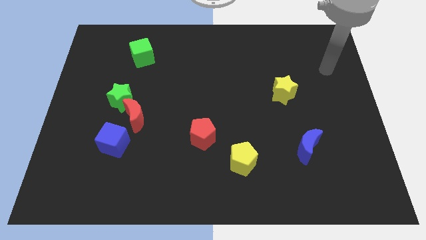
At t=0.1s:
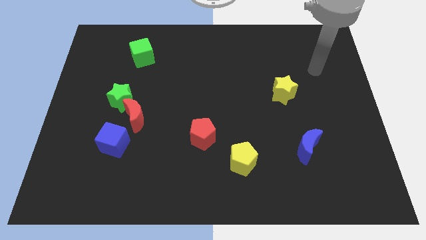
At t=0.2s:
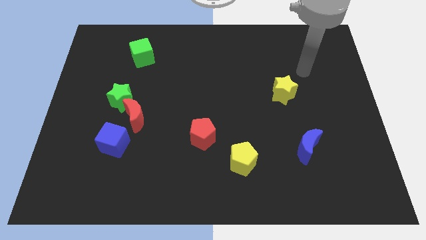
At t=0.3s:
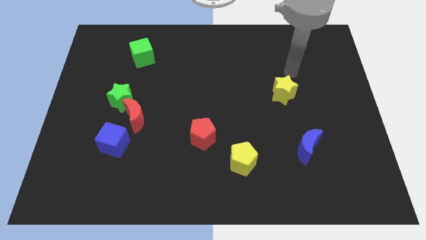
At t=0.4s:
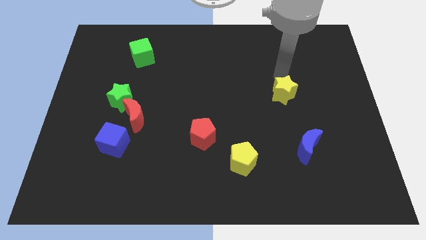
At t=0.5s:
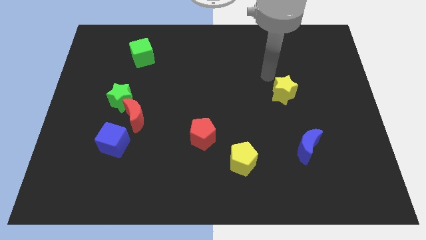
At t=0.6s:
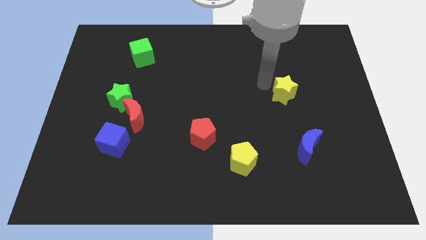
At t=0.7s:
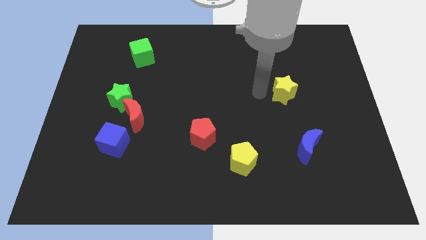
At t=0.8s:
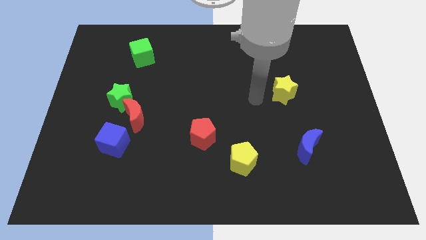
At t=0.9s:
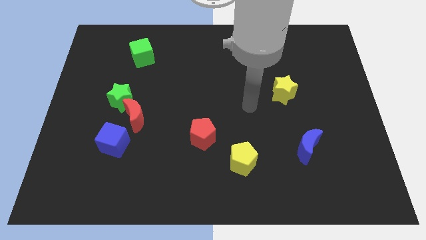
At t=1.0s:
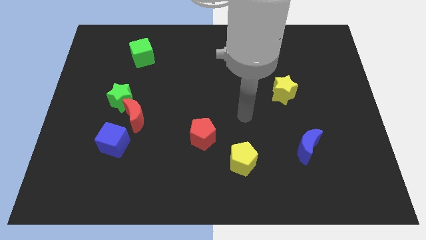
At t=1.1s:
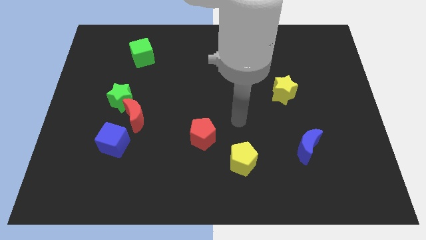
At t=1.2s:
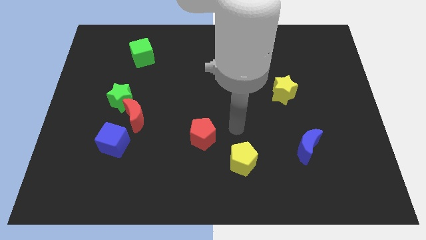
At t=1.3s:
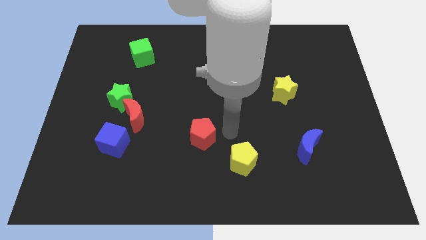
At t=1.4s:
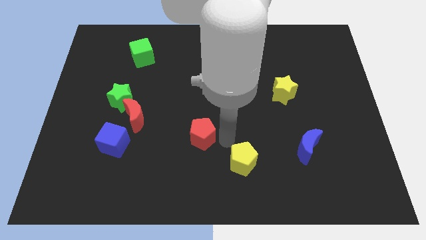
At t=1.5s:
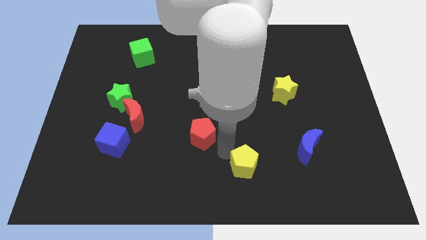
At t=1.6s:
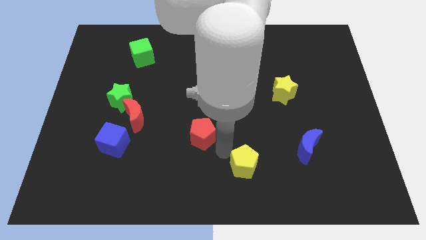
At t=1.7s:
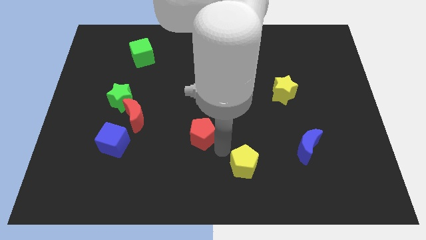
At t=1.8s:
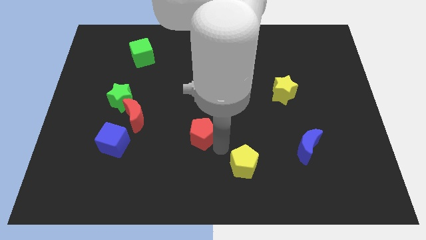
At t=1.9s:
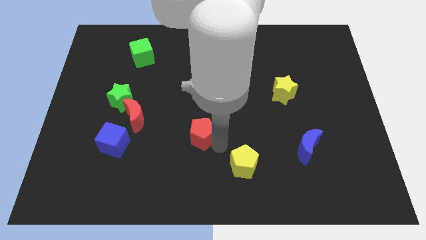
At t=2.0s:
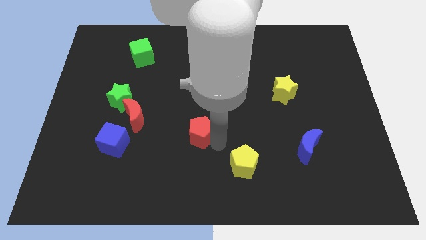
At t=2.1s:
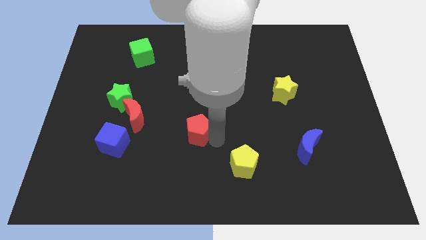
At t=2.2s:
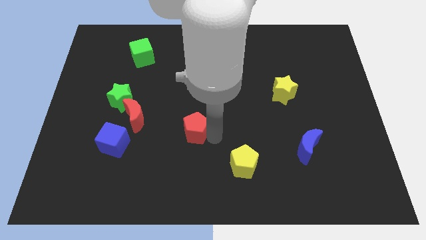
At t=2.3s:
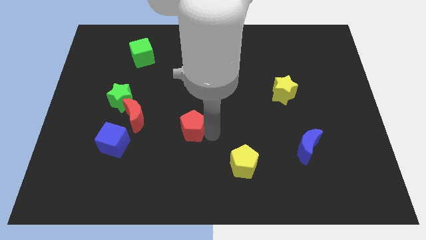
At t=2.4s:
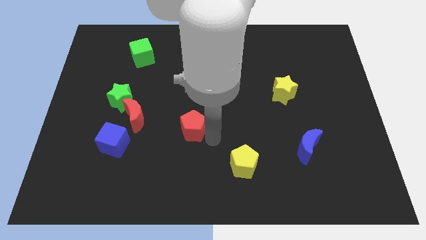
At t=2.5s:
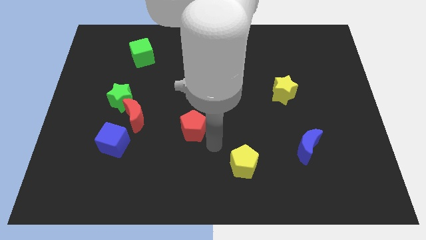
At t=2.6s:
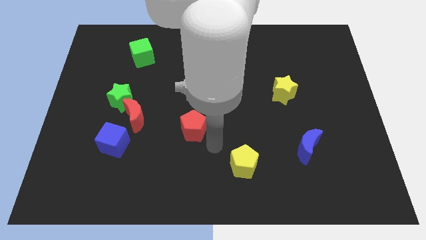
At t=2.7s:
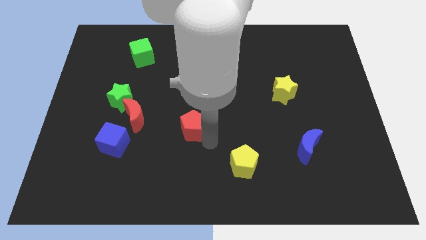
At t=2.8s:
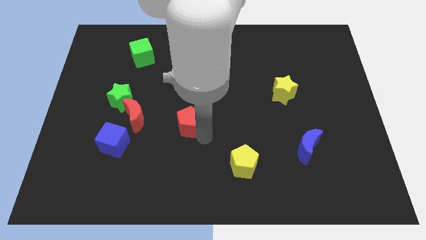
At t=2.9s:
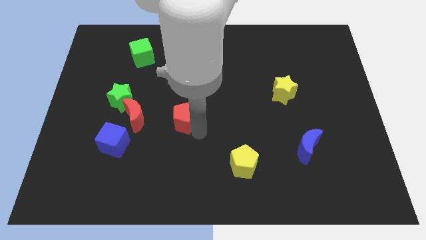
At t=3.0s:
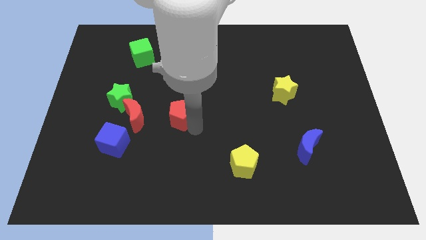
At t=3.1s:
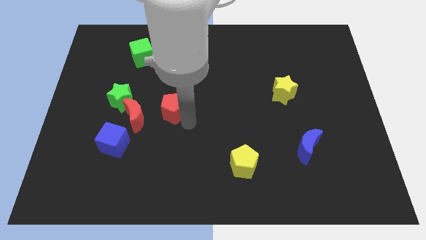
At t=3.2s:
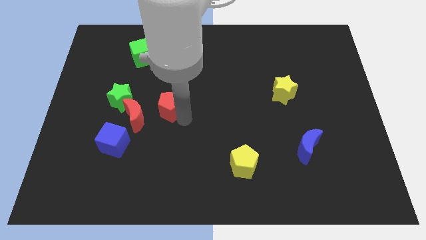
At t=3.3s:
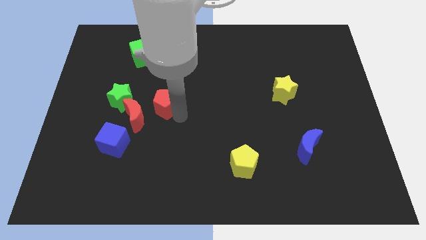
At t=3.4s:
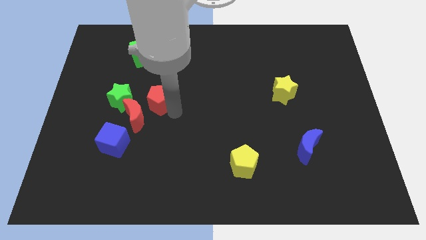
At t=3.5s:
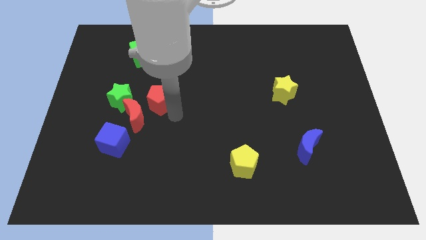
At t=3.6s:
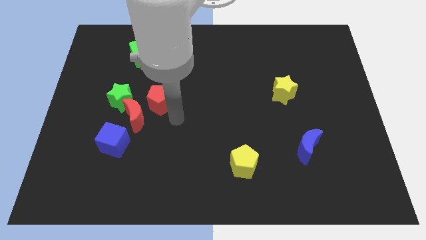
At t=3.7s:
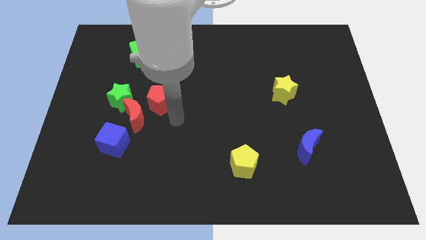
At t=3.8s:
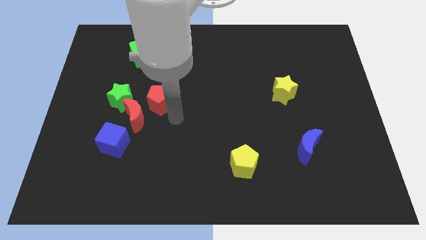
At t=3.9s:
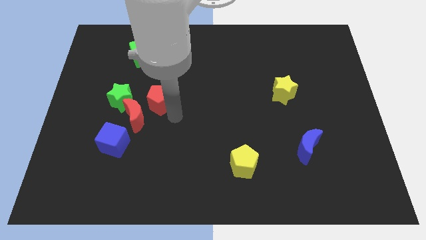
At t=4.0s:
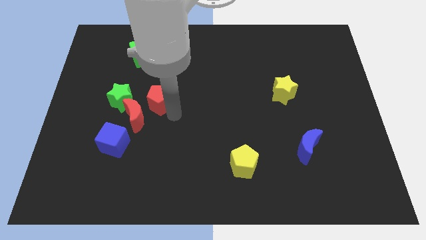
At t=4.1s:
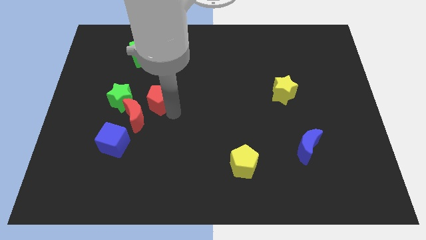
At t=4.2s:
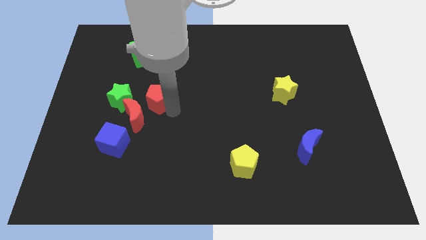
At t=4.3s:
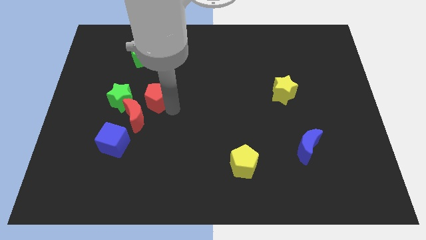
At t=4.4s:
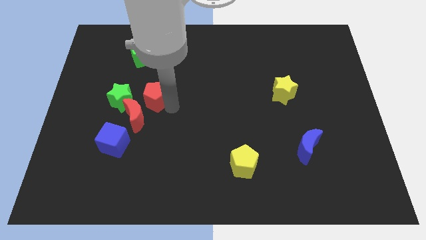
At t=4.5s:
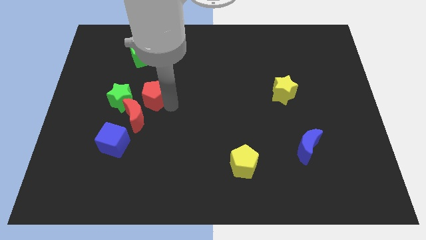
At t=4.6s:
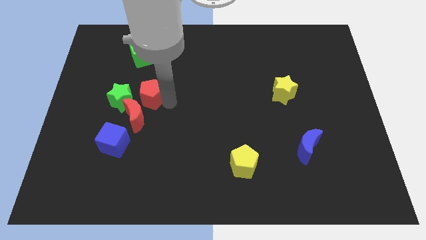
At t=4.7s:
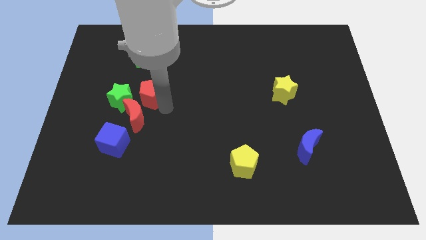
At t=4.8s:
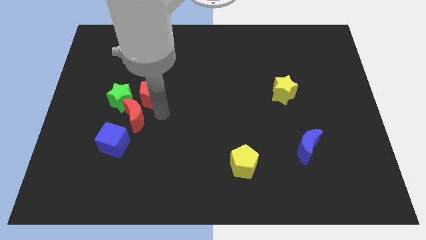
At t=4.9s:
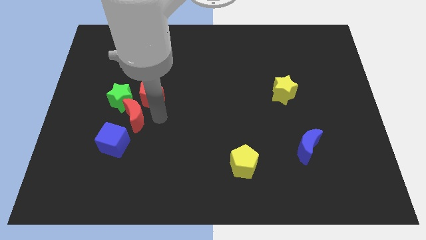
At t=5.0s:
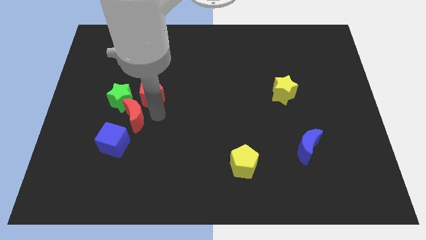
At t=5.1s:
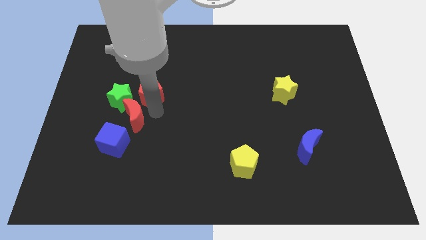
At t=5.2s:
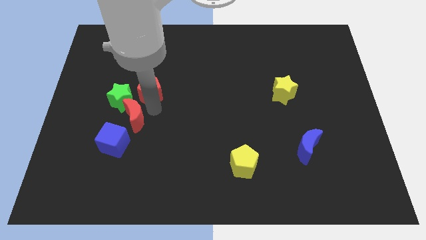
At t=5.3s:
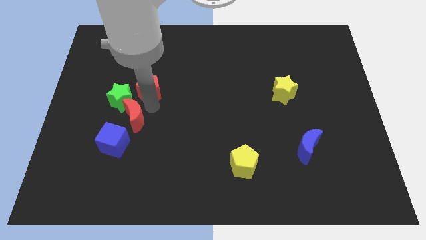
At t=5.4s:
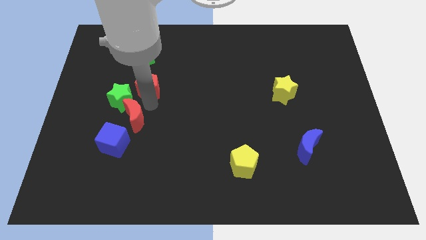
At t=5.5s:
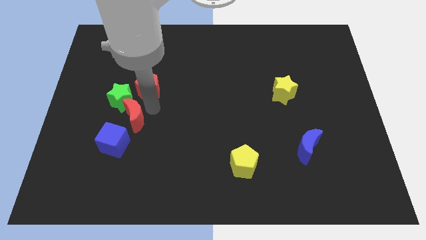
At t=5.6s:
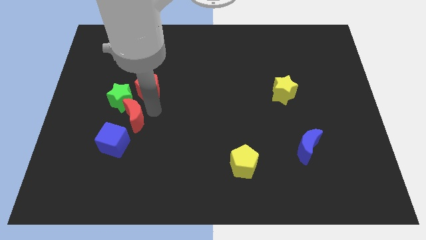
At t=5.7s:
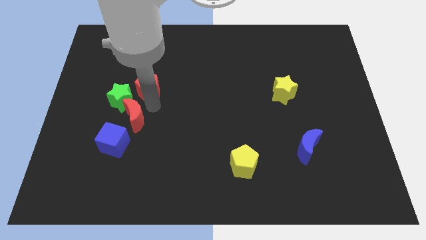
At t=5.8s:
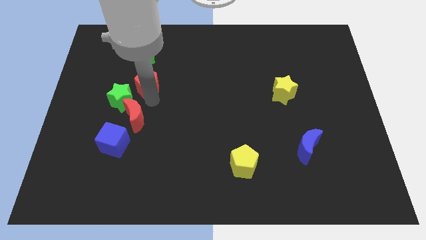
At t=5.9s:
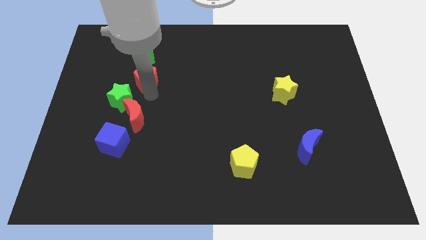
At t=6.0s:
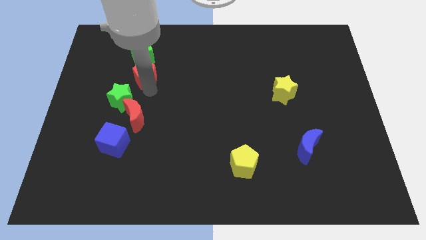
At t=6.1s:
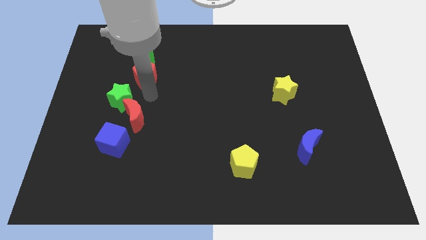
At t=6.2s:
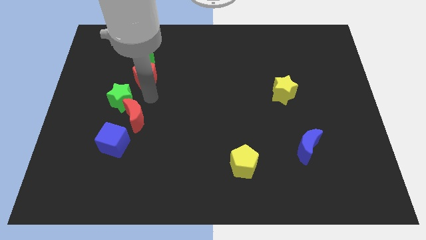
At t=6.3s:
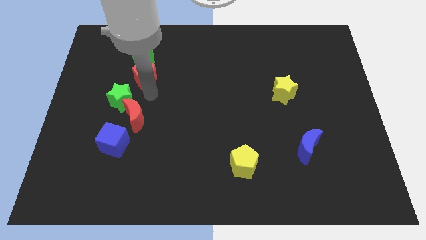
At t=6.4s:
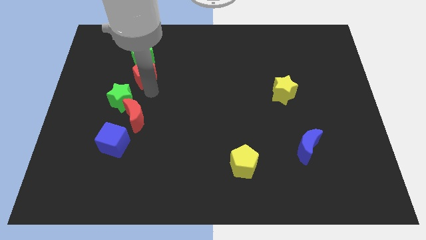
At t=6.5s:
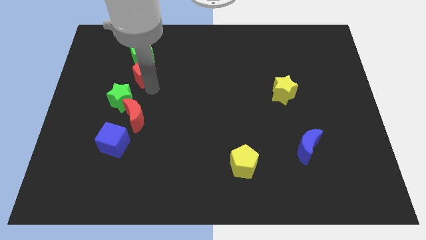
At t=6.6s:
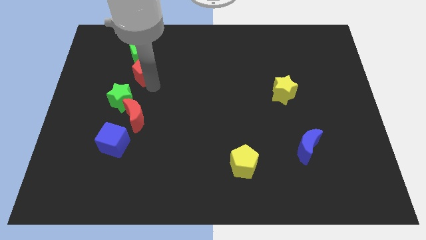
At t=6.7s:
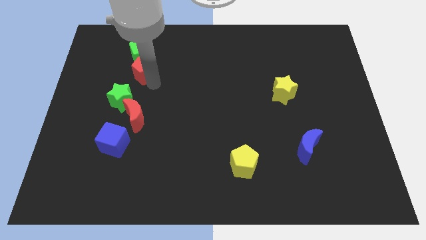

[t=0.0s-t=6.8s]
push the red pentagon close to the green cube

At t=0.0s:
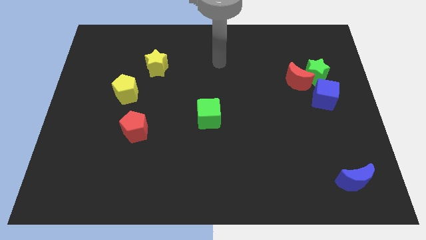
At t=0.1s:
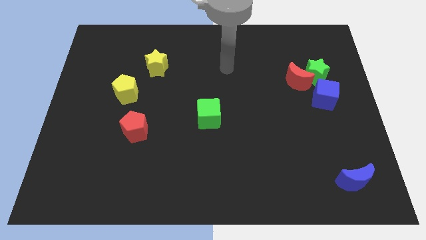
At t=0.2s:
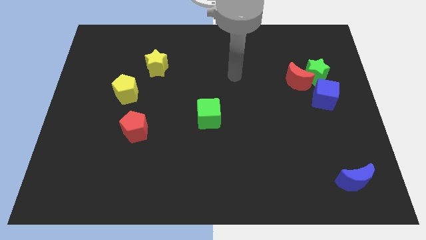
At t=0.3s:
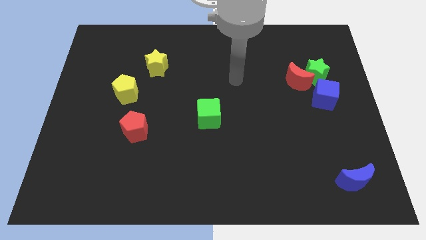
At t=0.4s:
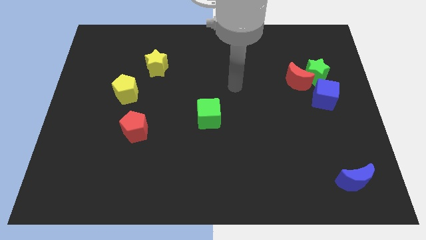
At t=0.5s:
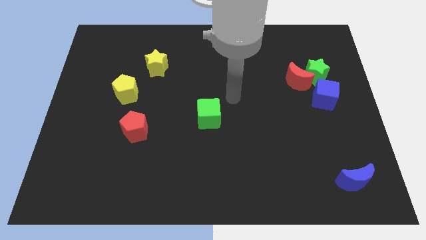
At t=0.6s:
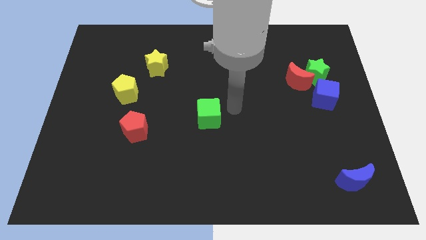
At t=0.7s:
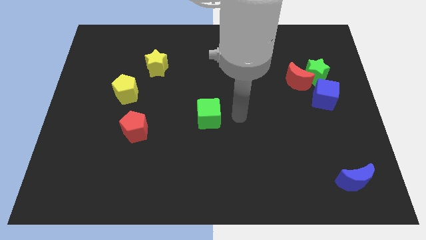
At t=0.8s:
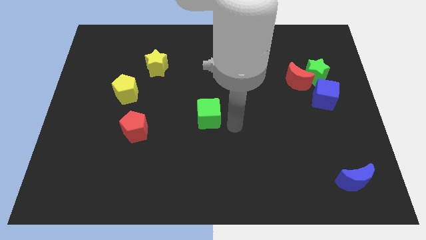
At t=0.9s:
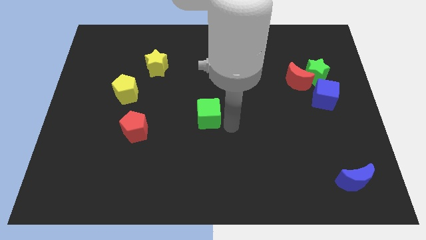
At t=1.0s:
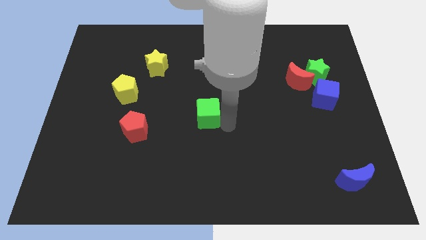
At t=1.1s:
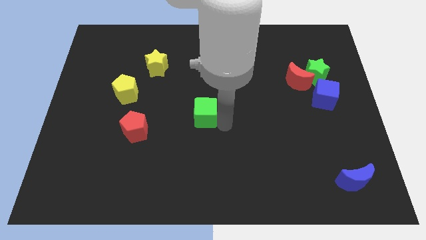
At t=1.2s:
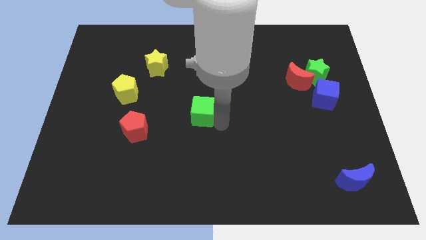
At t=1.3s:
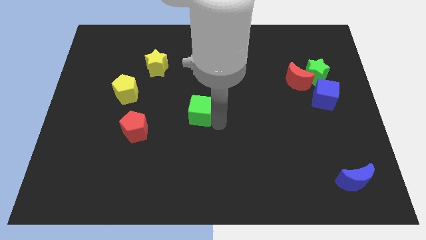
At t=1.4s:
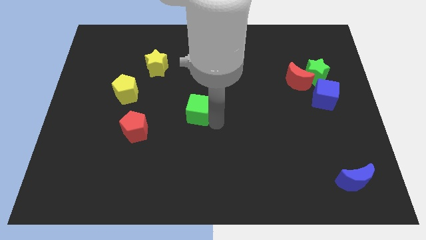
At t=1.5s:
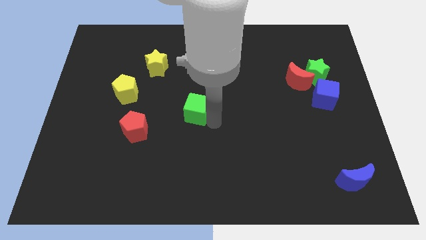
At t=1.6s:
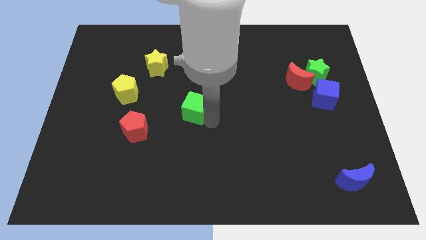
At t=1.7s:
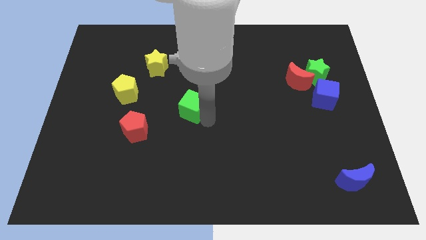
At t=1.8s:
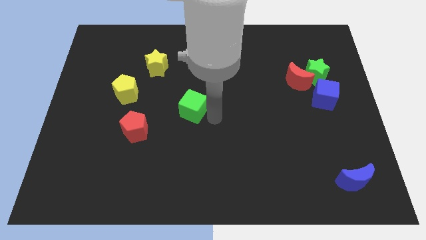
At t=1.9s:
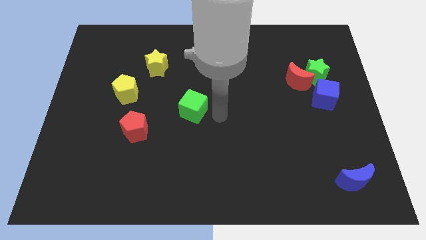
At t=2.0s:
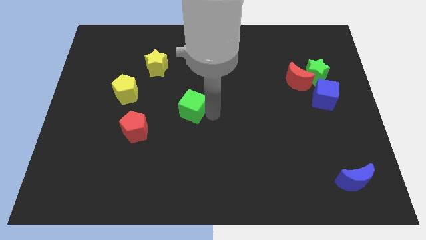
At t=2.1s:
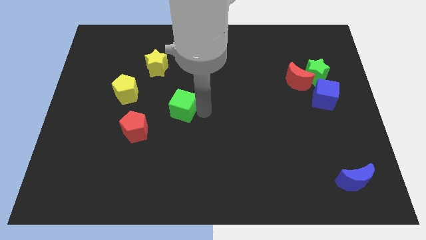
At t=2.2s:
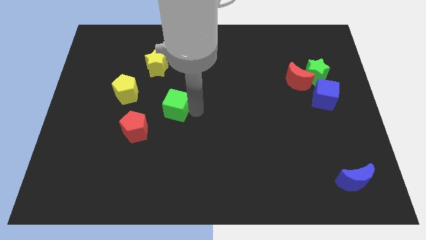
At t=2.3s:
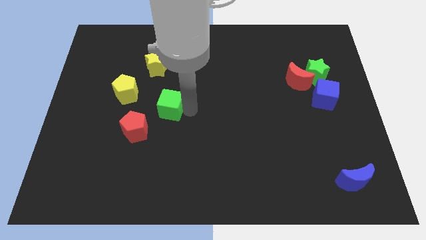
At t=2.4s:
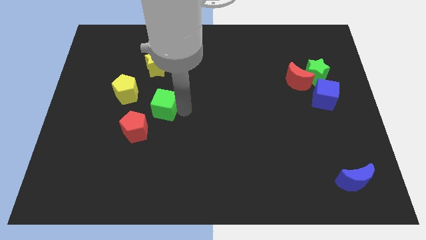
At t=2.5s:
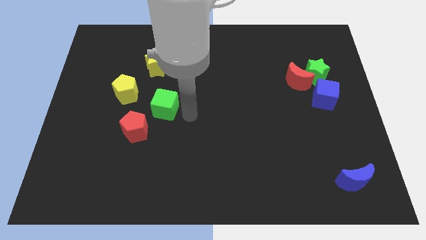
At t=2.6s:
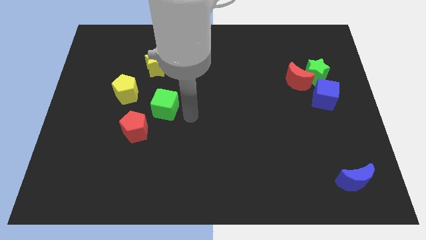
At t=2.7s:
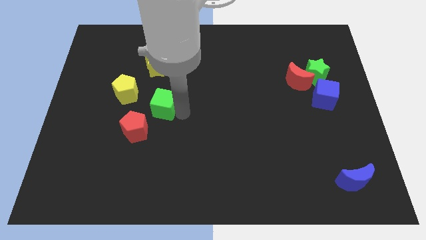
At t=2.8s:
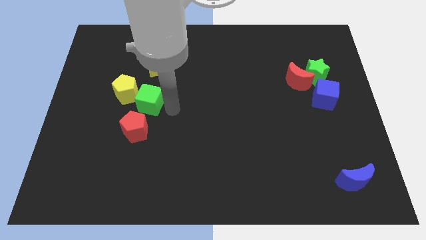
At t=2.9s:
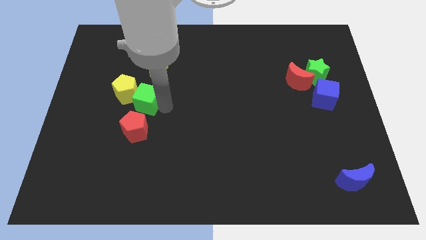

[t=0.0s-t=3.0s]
slide the green cube close to the yellow pentagon
